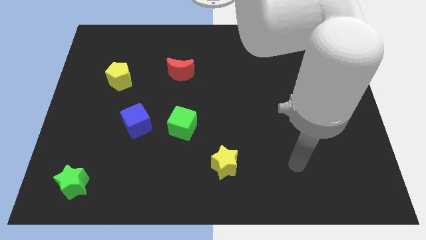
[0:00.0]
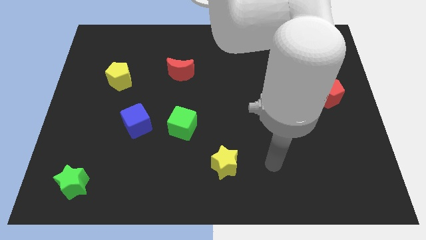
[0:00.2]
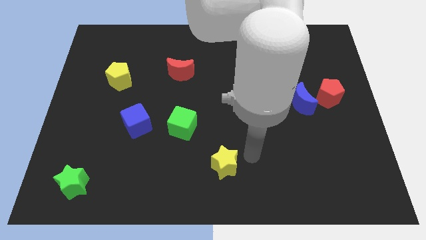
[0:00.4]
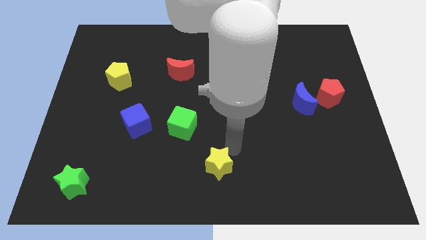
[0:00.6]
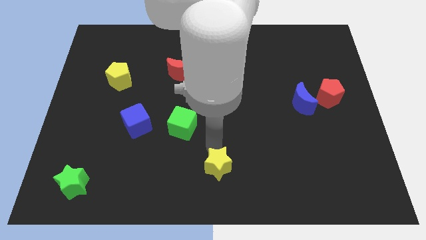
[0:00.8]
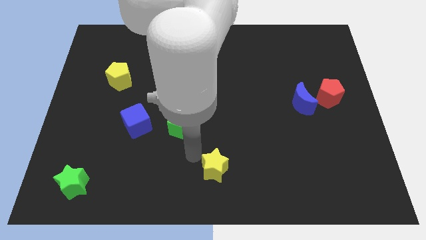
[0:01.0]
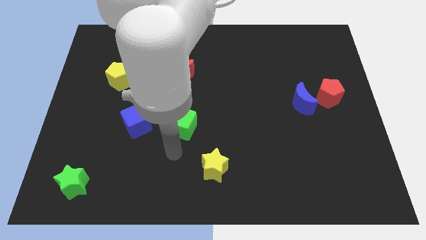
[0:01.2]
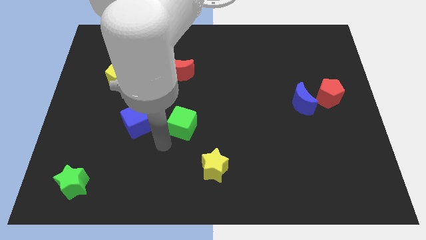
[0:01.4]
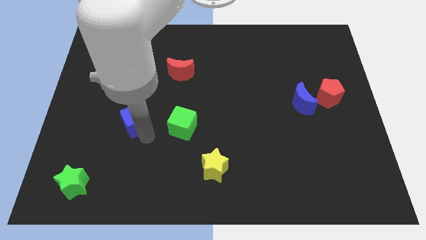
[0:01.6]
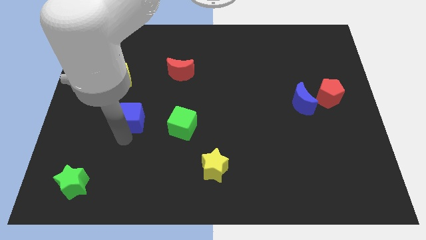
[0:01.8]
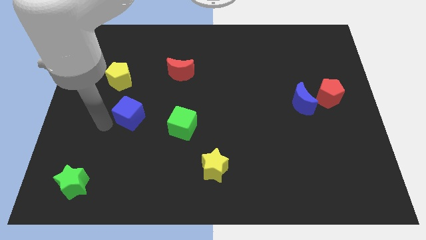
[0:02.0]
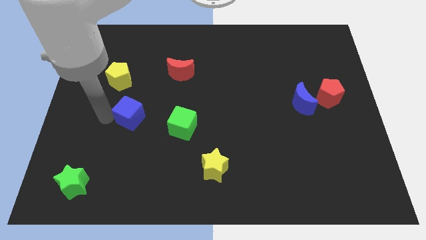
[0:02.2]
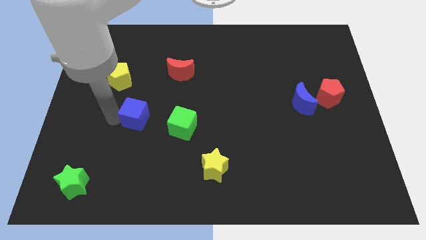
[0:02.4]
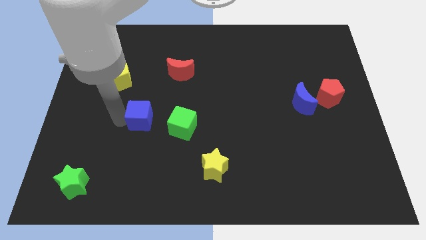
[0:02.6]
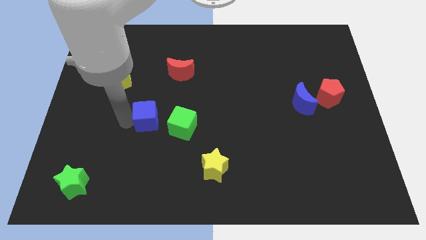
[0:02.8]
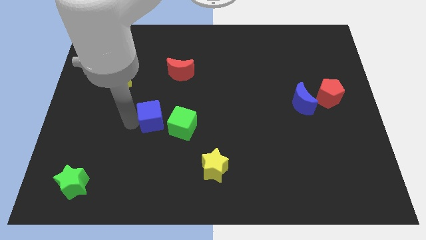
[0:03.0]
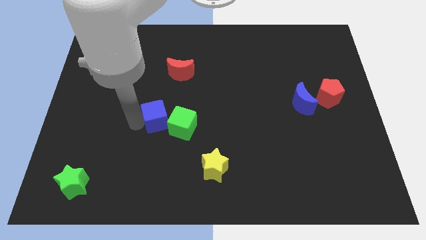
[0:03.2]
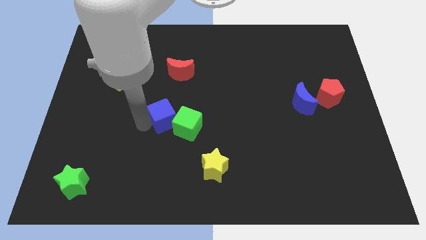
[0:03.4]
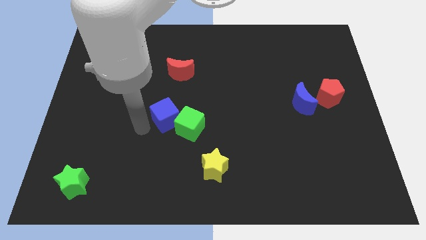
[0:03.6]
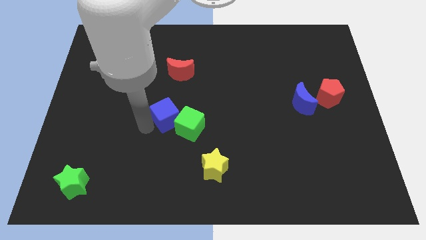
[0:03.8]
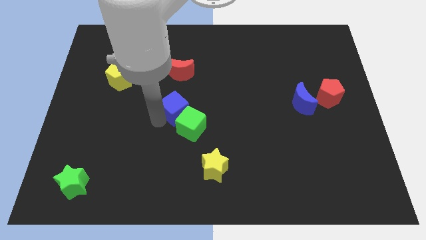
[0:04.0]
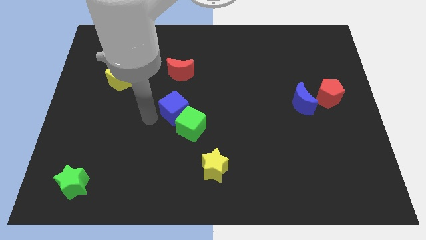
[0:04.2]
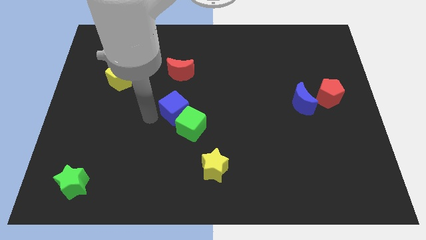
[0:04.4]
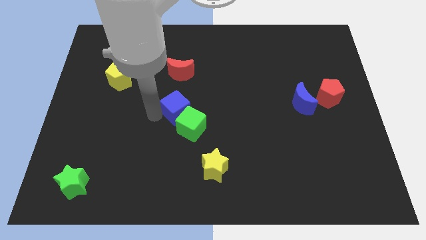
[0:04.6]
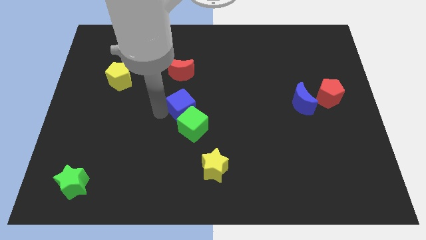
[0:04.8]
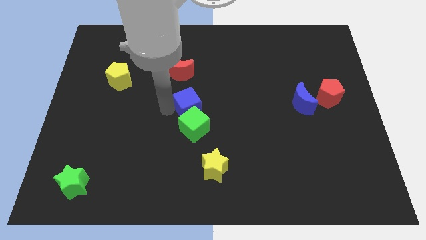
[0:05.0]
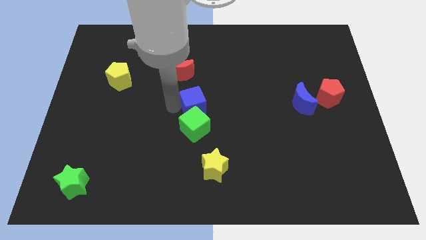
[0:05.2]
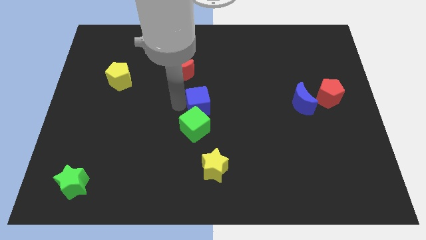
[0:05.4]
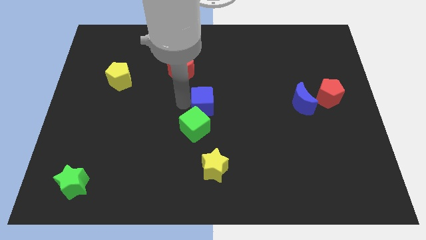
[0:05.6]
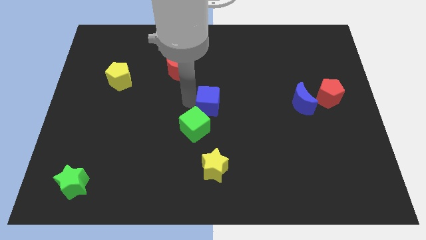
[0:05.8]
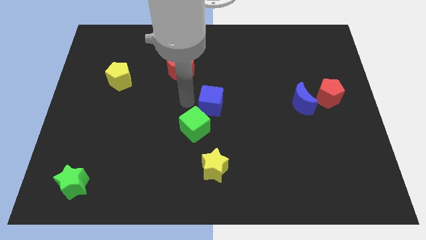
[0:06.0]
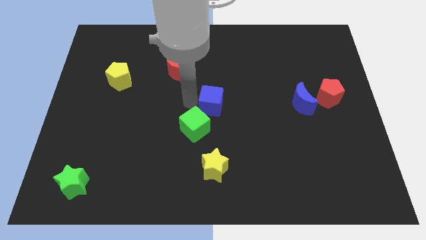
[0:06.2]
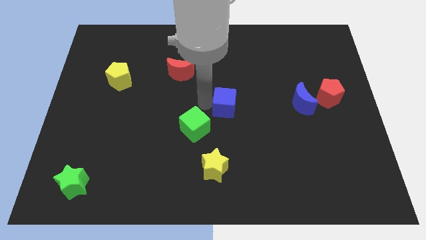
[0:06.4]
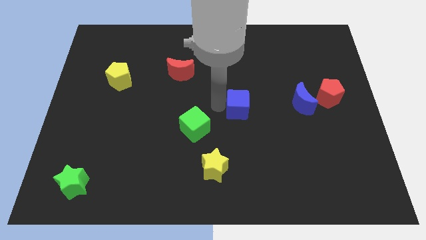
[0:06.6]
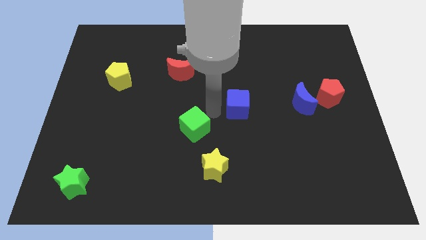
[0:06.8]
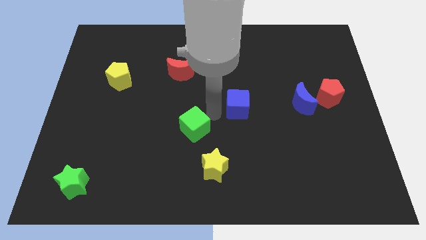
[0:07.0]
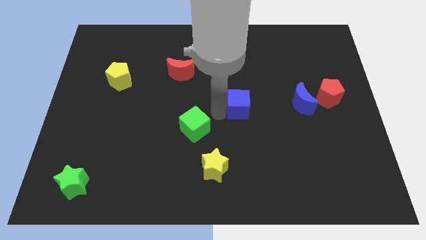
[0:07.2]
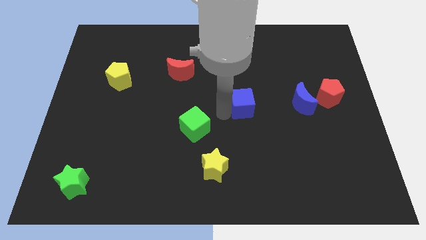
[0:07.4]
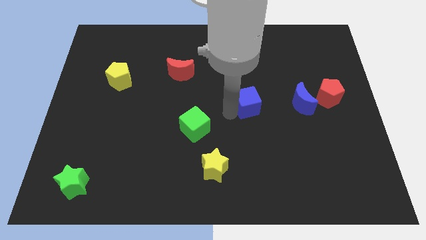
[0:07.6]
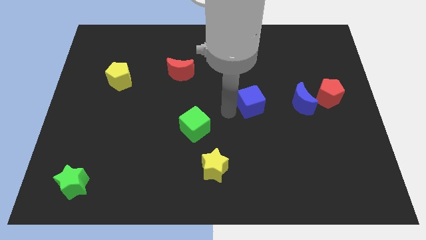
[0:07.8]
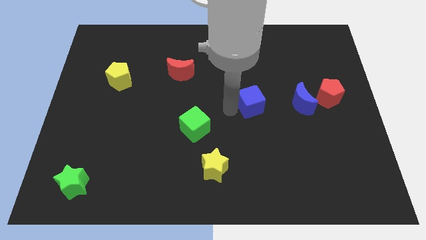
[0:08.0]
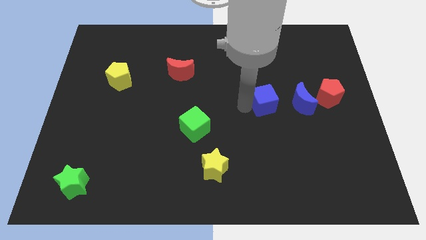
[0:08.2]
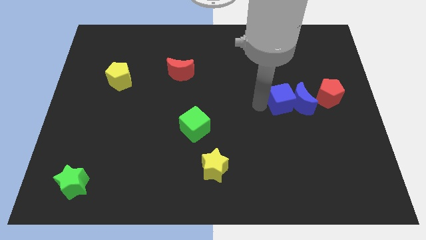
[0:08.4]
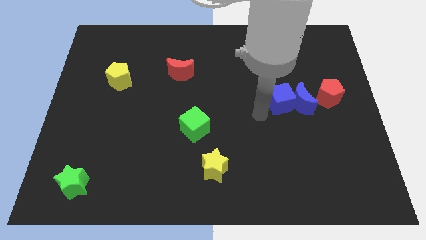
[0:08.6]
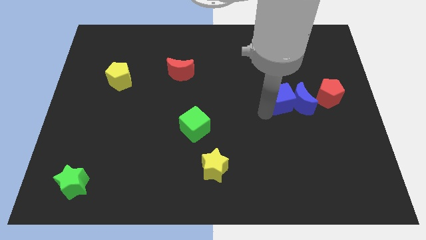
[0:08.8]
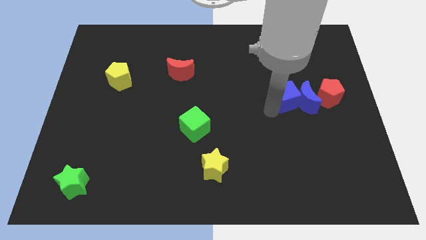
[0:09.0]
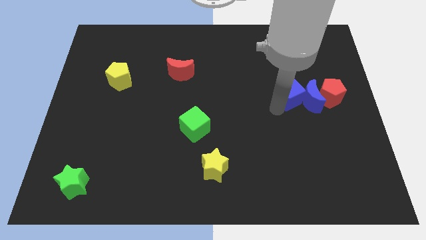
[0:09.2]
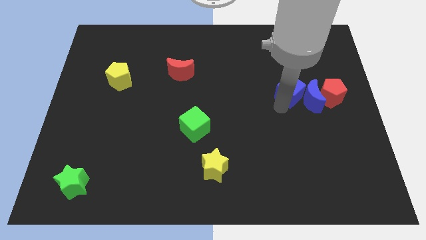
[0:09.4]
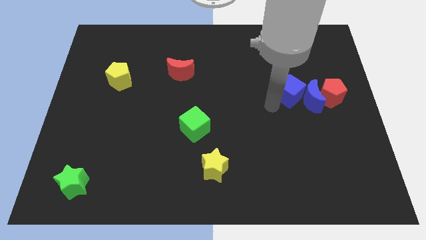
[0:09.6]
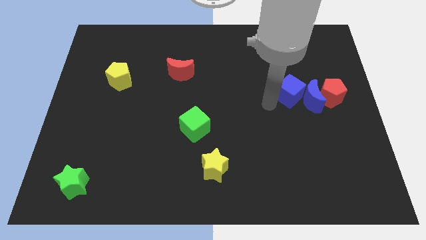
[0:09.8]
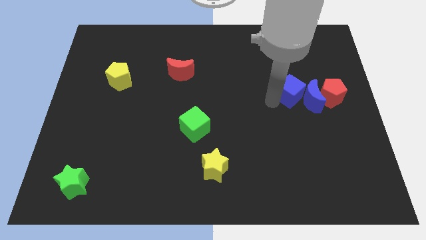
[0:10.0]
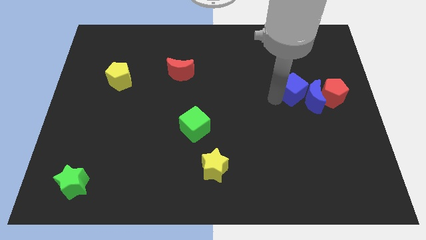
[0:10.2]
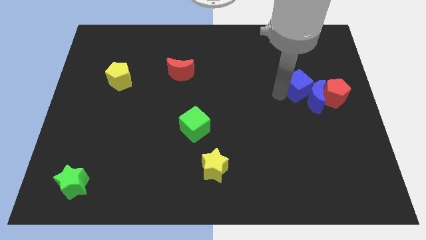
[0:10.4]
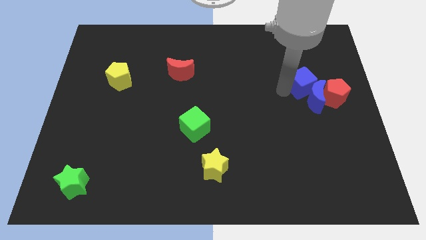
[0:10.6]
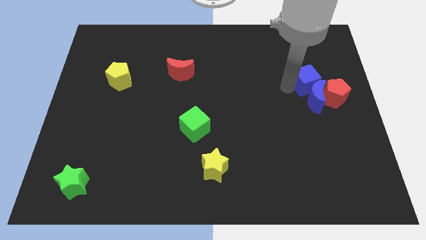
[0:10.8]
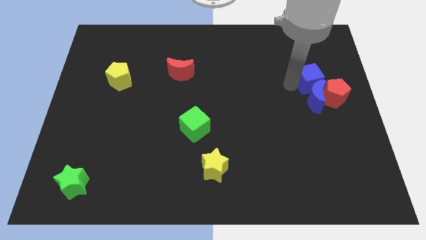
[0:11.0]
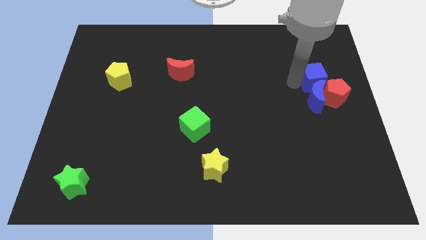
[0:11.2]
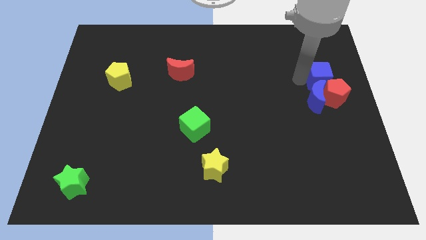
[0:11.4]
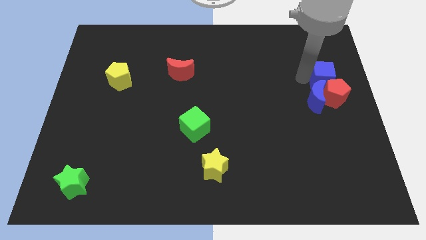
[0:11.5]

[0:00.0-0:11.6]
put the blue cube to the right side
